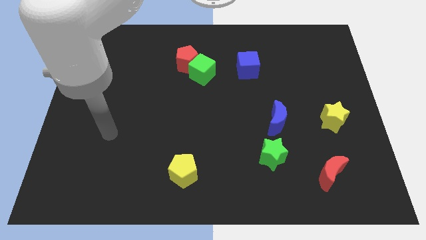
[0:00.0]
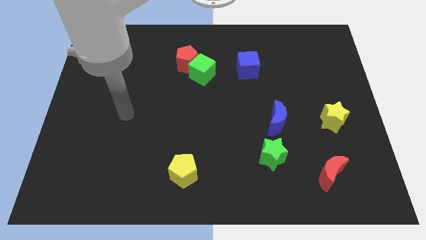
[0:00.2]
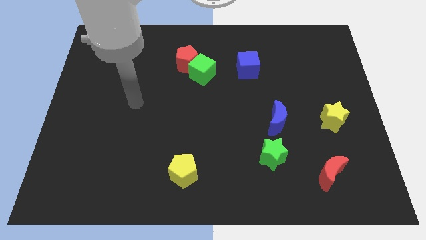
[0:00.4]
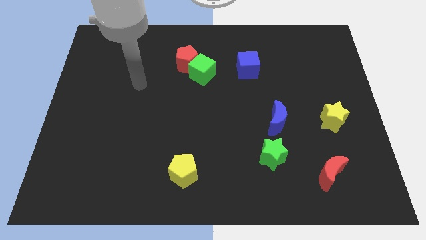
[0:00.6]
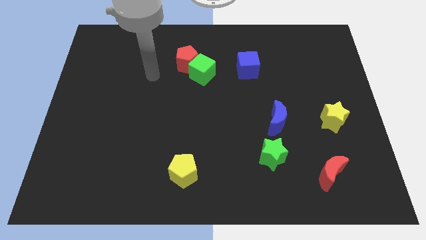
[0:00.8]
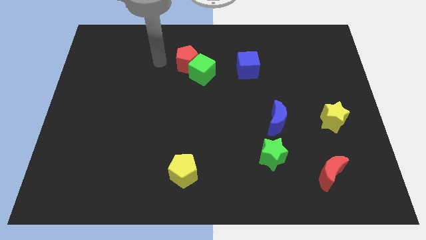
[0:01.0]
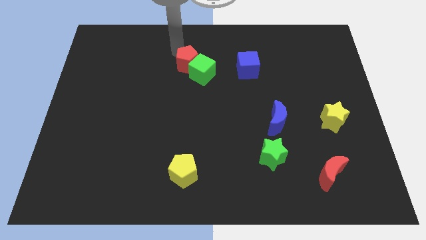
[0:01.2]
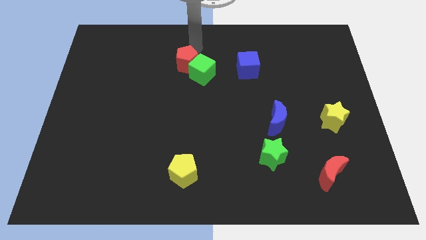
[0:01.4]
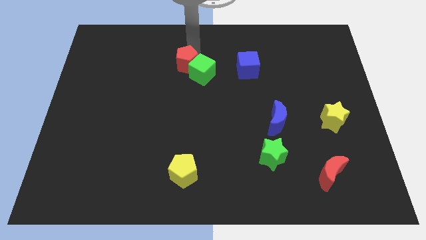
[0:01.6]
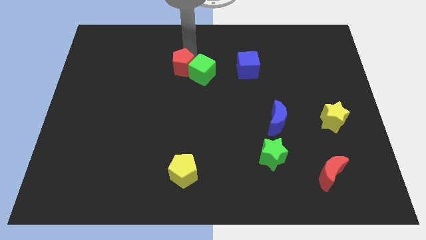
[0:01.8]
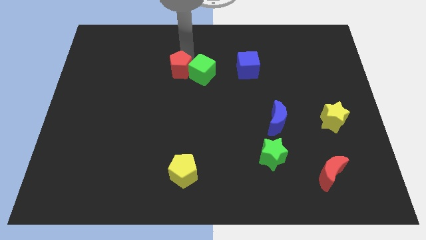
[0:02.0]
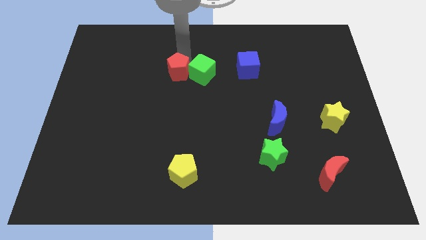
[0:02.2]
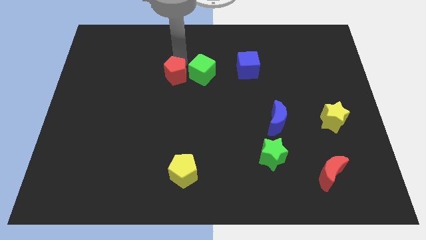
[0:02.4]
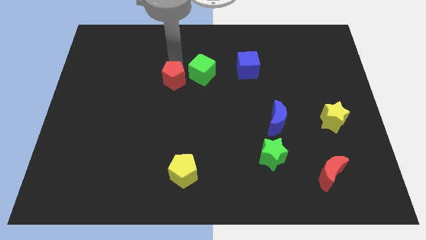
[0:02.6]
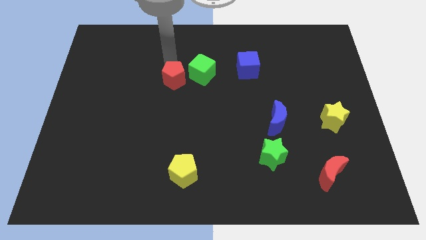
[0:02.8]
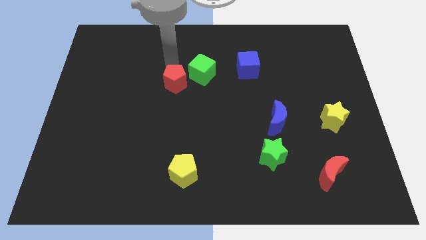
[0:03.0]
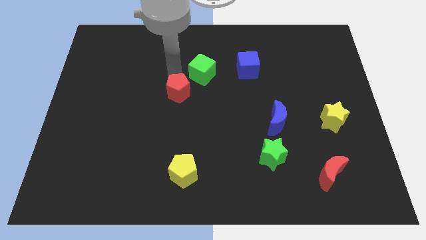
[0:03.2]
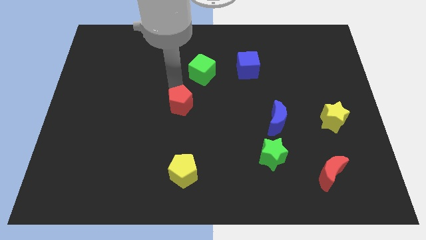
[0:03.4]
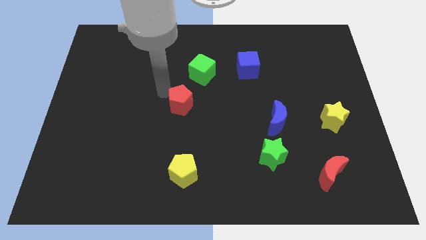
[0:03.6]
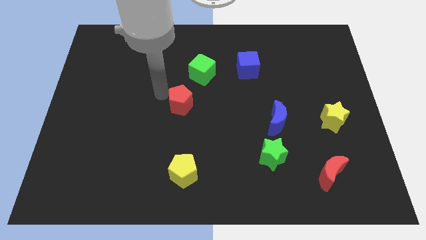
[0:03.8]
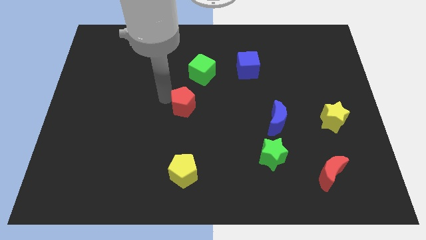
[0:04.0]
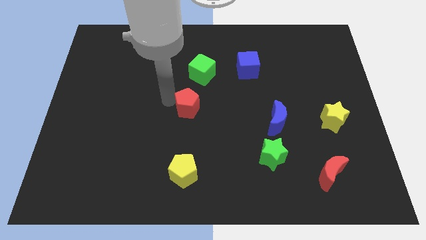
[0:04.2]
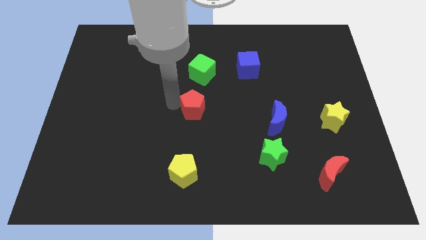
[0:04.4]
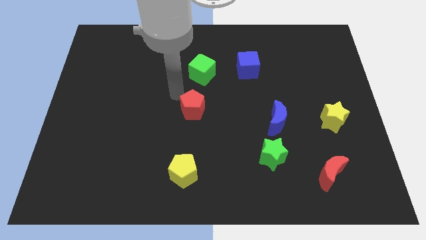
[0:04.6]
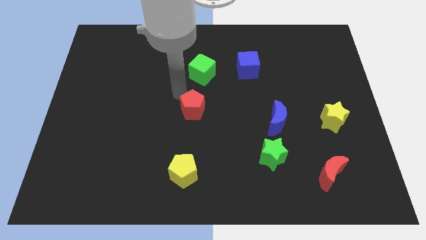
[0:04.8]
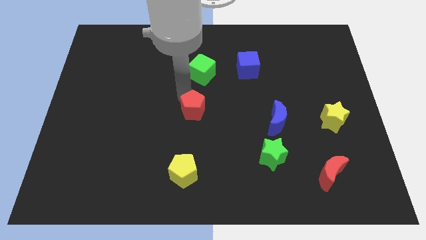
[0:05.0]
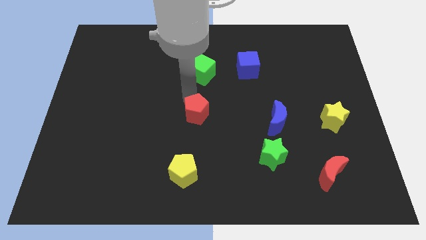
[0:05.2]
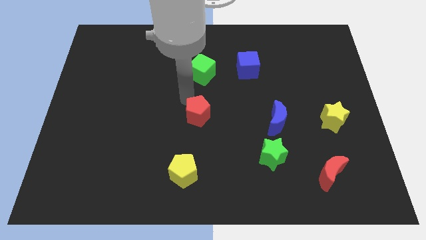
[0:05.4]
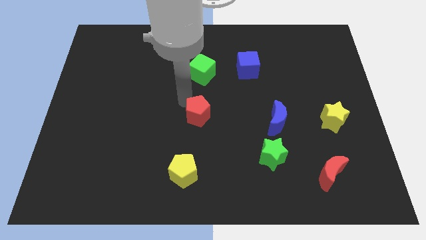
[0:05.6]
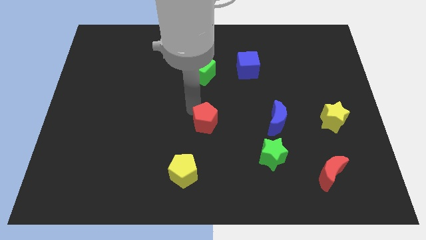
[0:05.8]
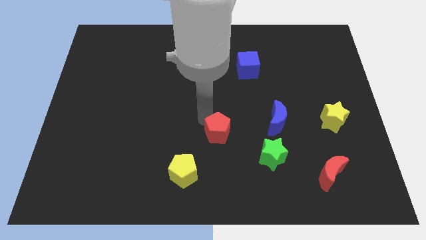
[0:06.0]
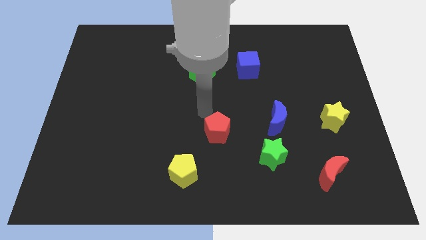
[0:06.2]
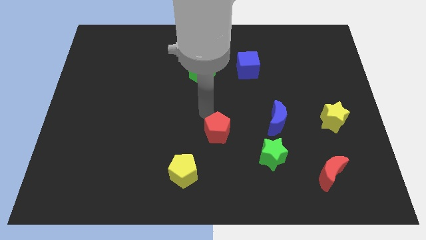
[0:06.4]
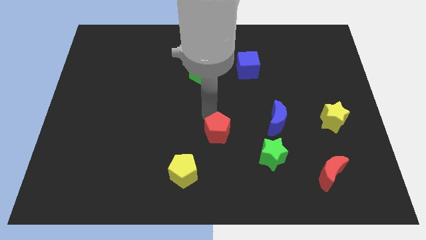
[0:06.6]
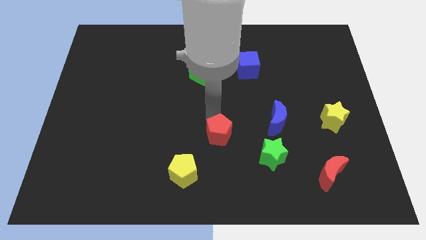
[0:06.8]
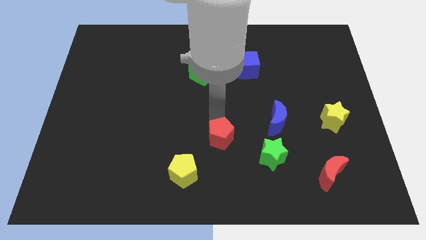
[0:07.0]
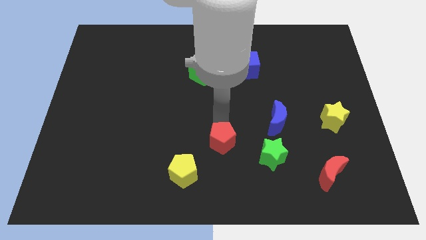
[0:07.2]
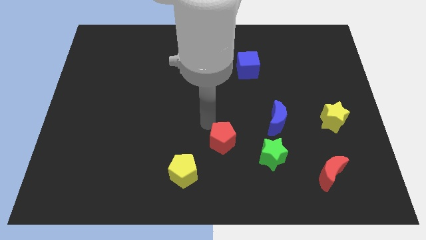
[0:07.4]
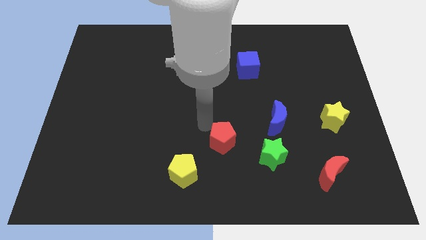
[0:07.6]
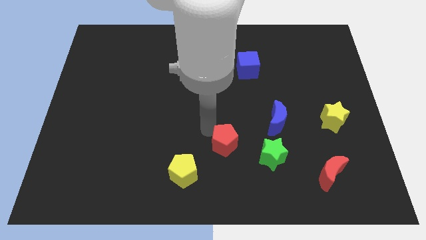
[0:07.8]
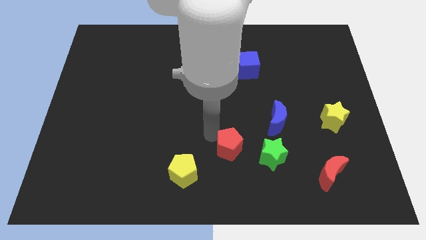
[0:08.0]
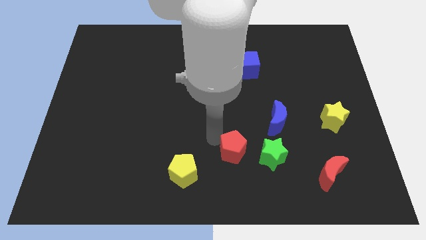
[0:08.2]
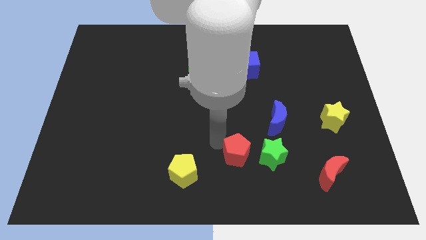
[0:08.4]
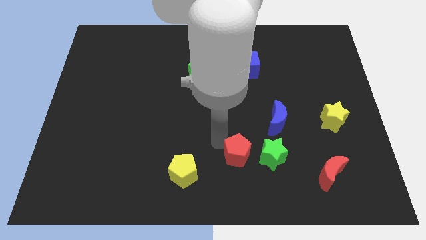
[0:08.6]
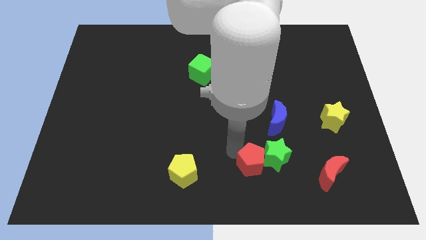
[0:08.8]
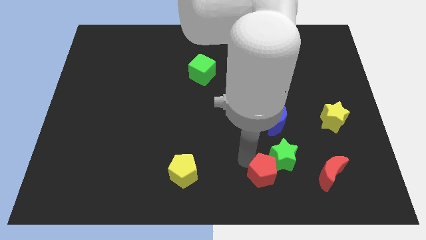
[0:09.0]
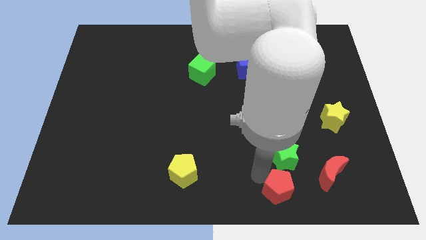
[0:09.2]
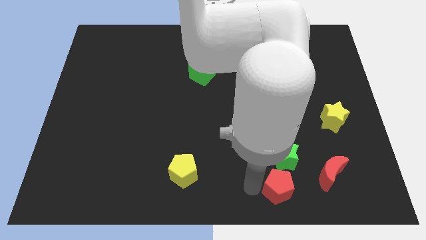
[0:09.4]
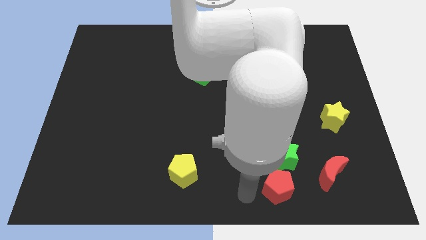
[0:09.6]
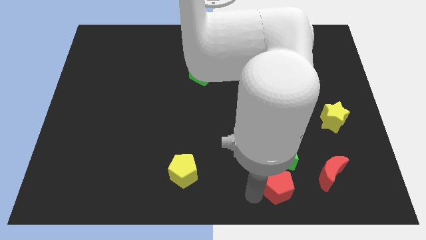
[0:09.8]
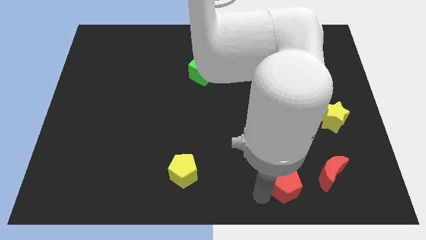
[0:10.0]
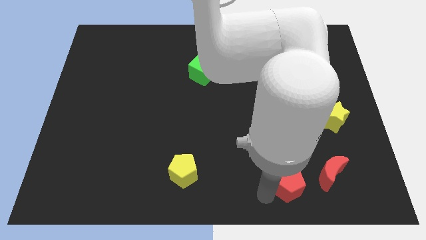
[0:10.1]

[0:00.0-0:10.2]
slide the red pentagon to the bottom right of the green star

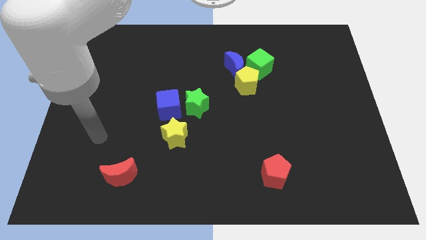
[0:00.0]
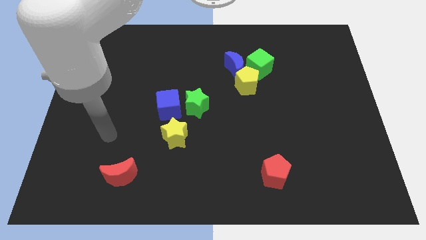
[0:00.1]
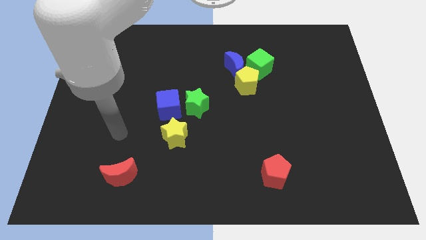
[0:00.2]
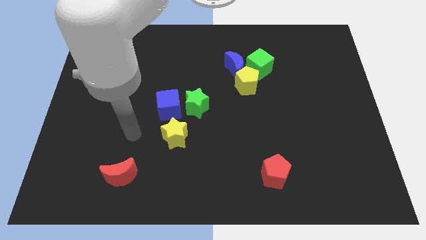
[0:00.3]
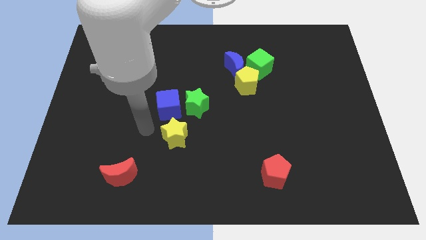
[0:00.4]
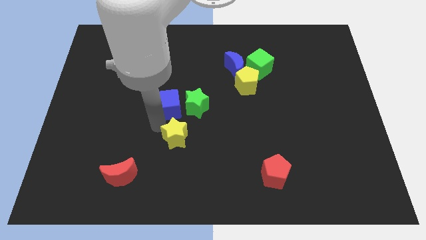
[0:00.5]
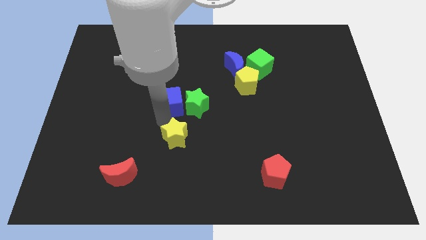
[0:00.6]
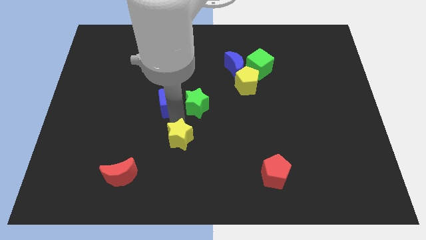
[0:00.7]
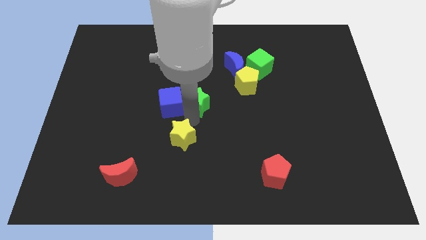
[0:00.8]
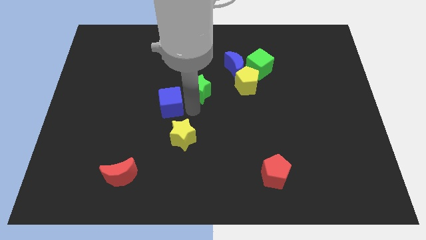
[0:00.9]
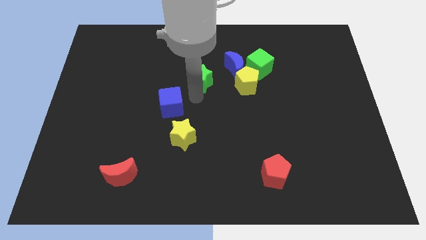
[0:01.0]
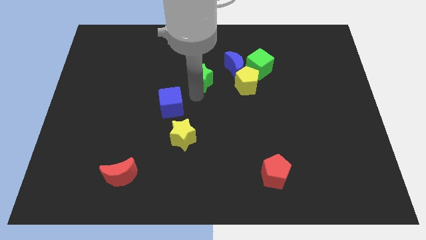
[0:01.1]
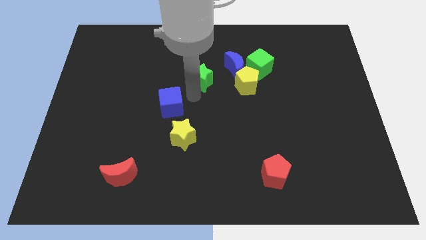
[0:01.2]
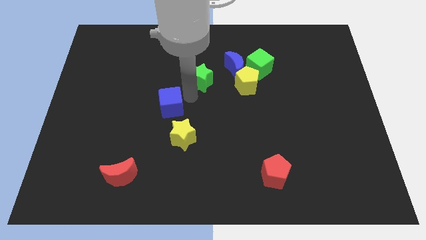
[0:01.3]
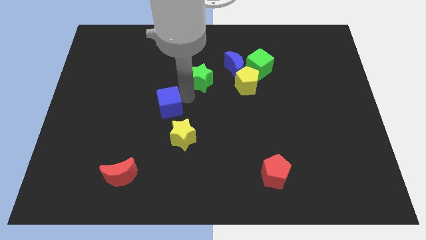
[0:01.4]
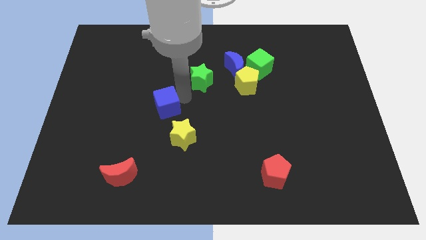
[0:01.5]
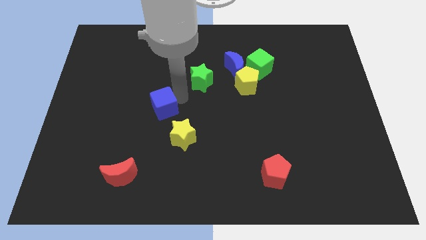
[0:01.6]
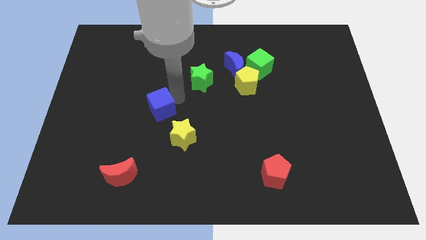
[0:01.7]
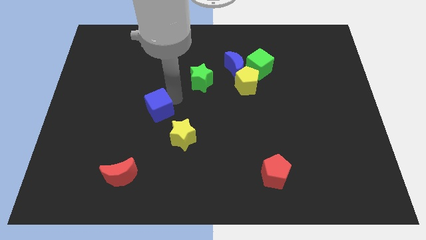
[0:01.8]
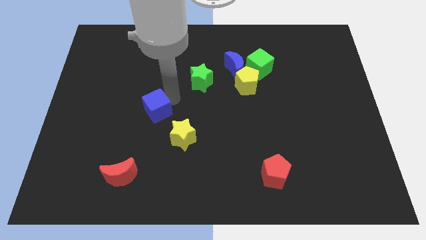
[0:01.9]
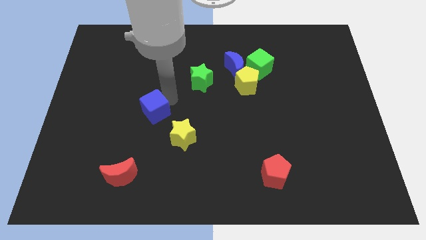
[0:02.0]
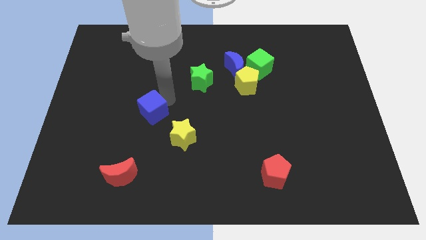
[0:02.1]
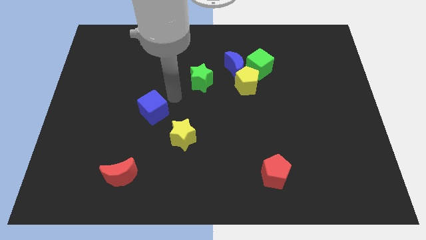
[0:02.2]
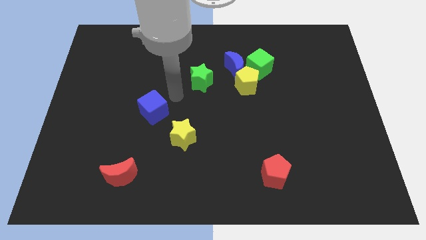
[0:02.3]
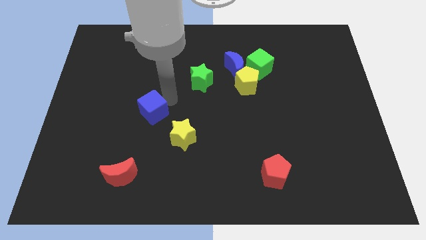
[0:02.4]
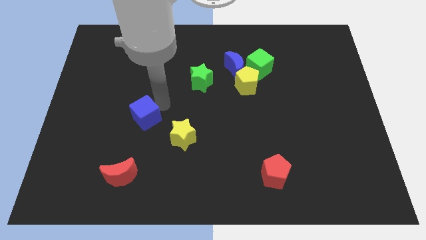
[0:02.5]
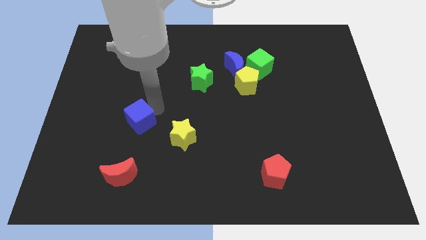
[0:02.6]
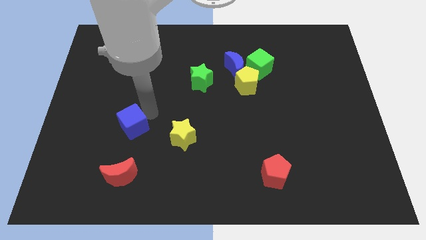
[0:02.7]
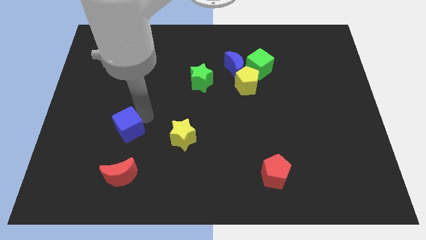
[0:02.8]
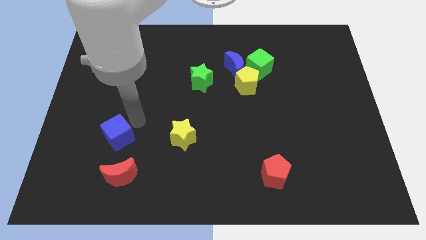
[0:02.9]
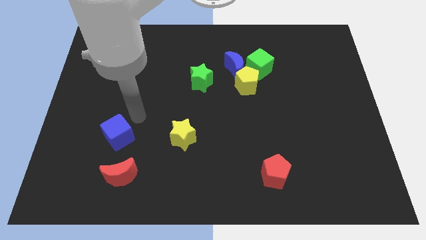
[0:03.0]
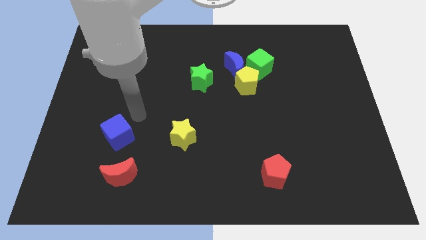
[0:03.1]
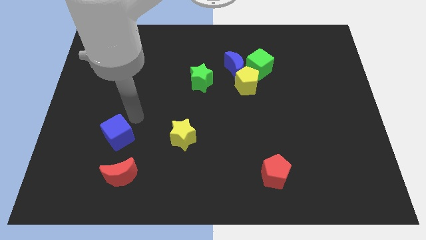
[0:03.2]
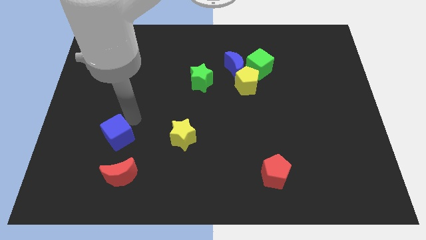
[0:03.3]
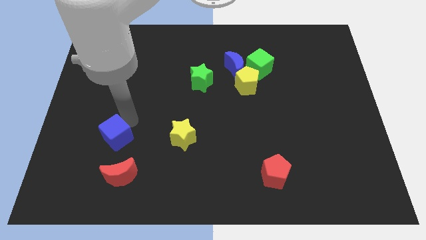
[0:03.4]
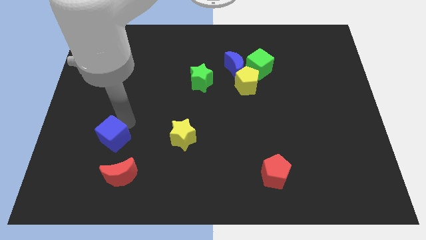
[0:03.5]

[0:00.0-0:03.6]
push the blue cube to the top left of the red moon
